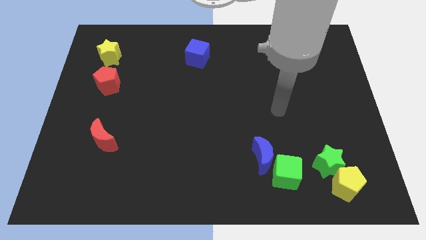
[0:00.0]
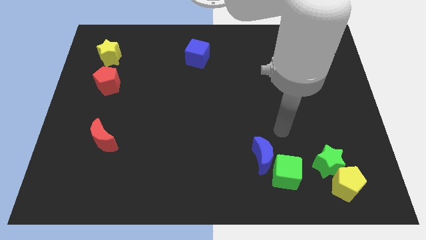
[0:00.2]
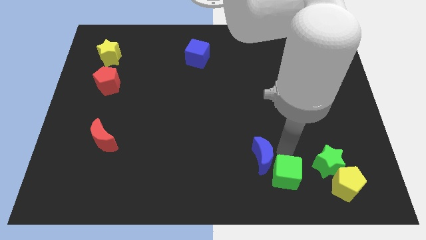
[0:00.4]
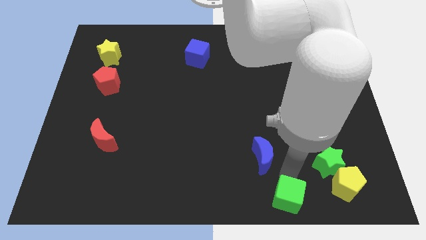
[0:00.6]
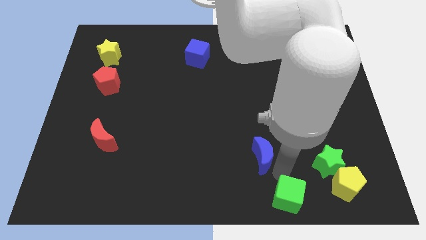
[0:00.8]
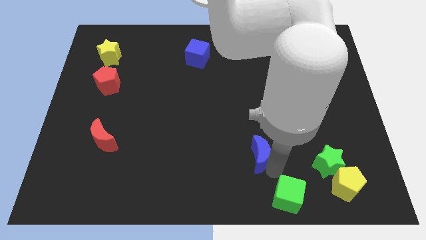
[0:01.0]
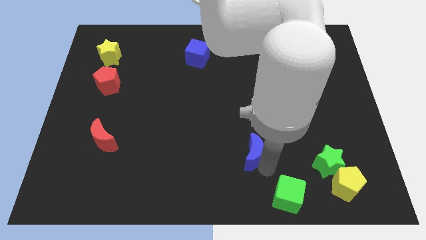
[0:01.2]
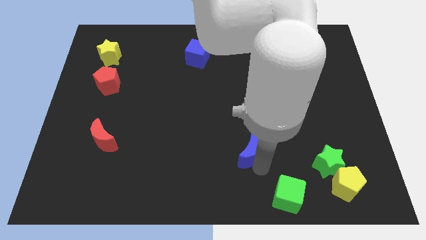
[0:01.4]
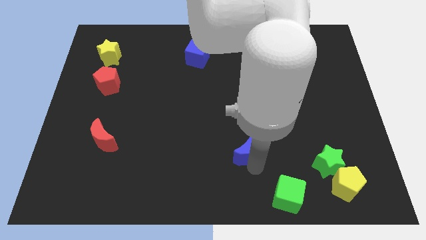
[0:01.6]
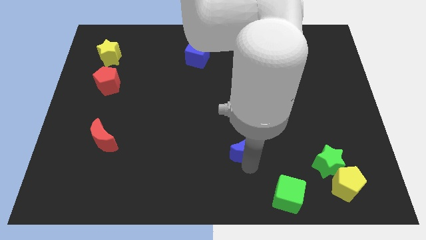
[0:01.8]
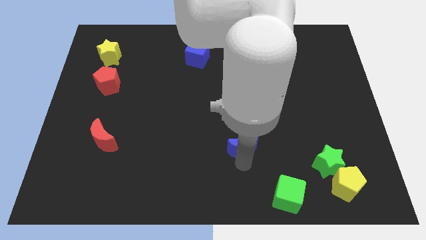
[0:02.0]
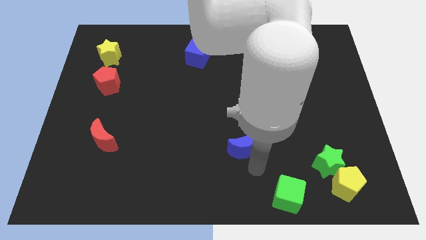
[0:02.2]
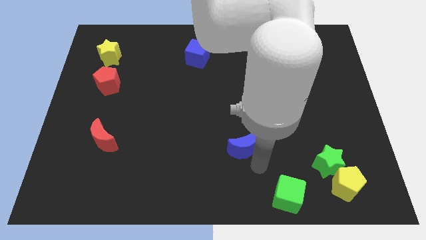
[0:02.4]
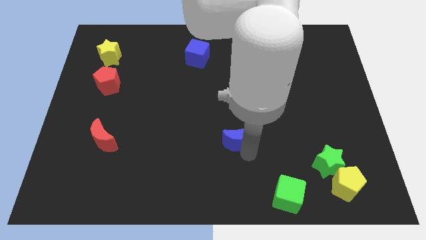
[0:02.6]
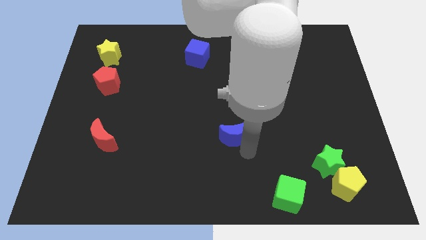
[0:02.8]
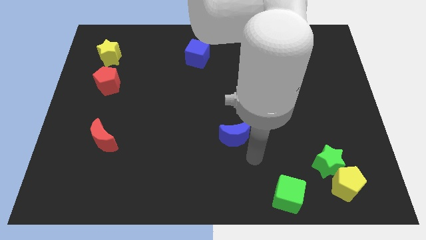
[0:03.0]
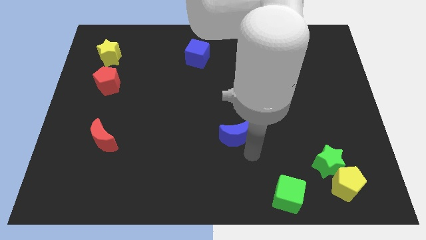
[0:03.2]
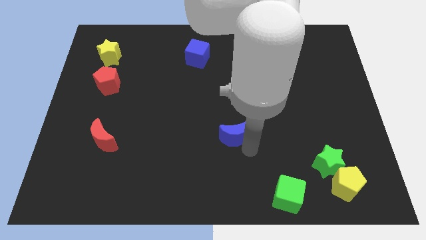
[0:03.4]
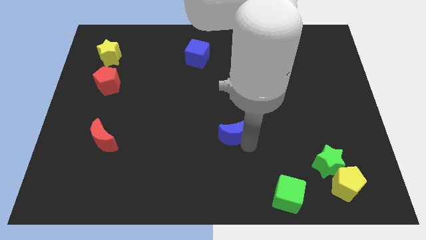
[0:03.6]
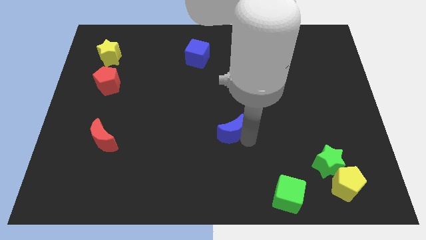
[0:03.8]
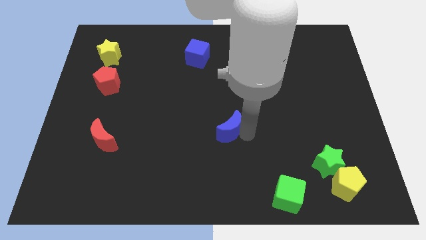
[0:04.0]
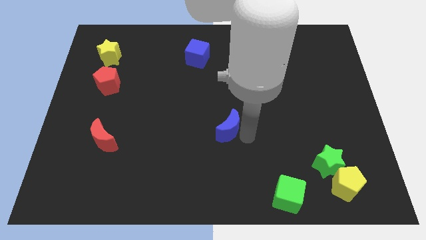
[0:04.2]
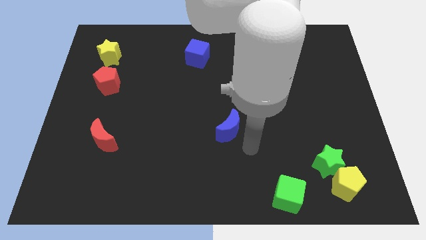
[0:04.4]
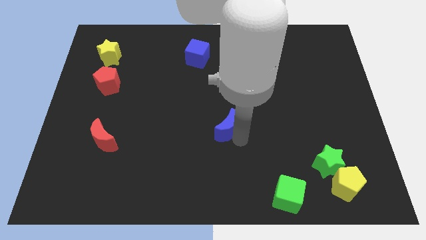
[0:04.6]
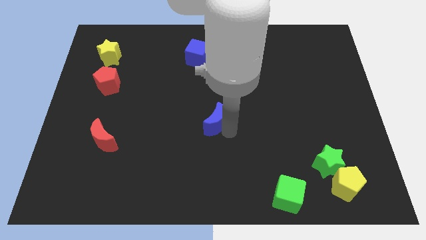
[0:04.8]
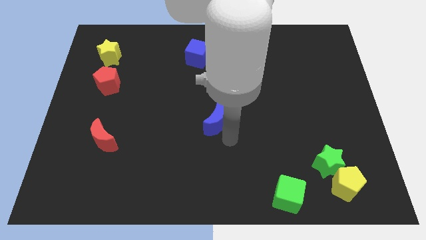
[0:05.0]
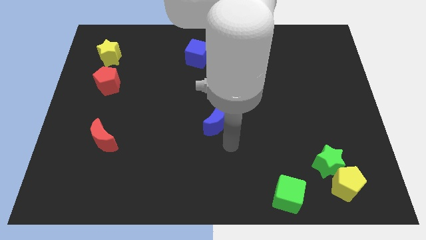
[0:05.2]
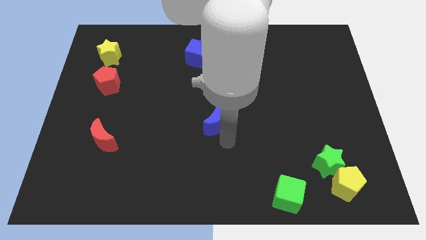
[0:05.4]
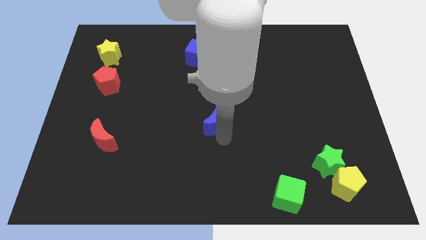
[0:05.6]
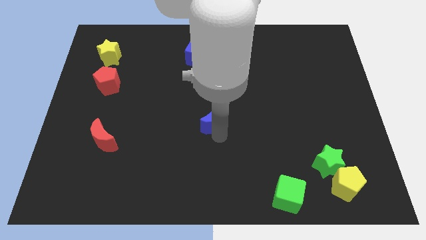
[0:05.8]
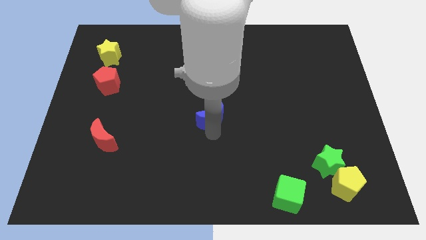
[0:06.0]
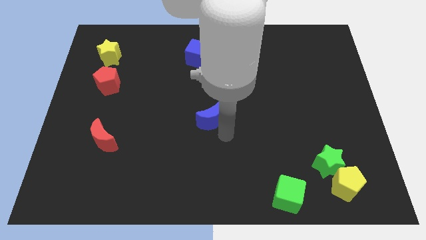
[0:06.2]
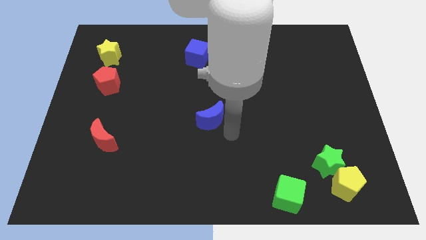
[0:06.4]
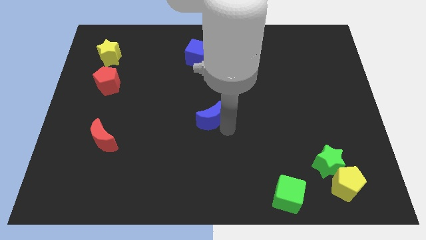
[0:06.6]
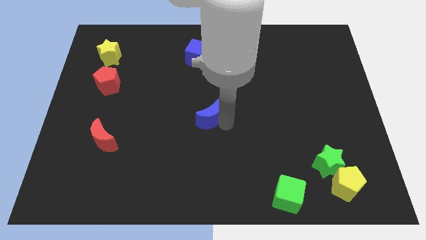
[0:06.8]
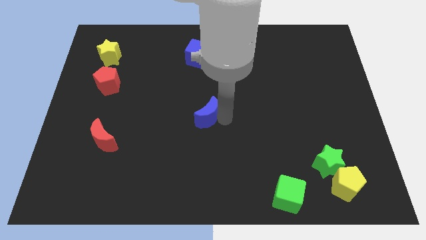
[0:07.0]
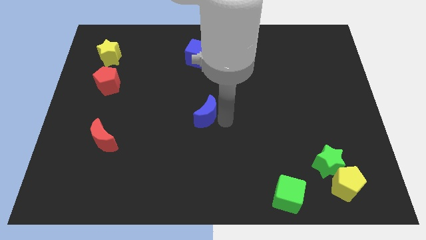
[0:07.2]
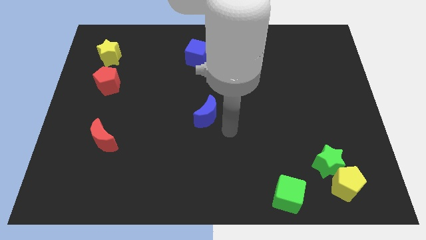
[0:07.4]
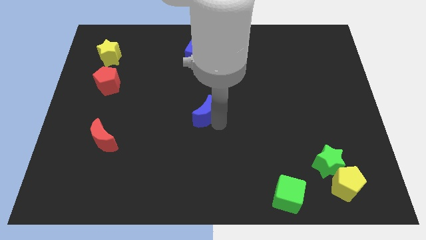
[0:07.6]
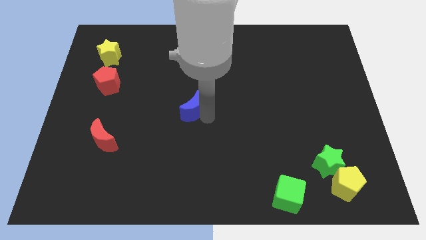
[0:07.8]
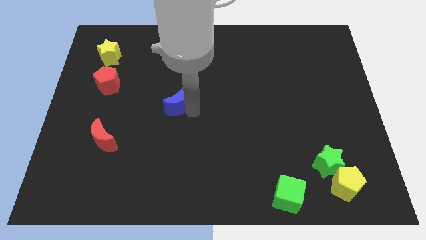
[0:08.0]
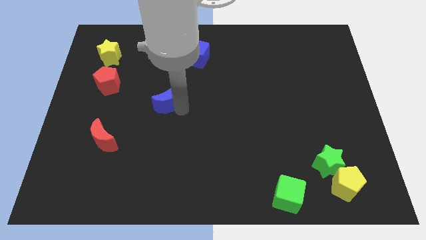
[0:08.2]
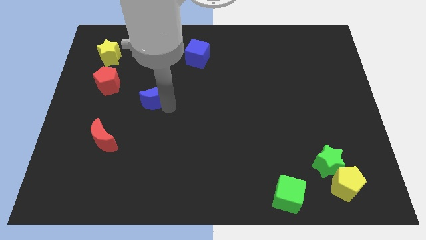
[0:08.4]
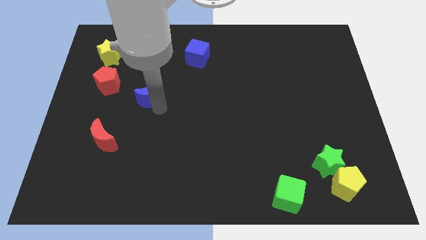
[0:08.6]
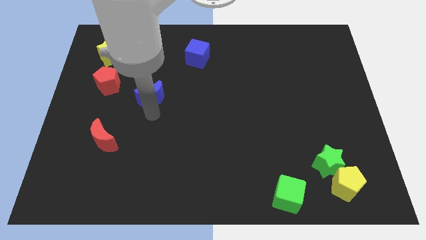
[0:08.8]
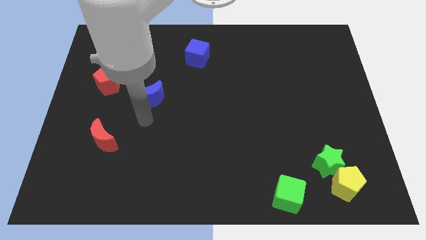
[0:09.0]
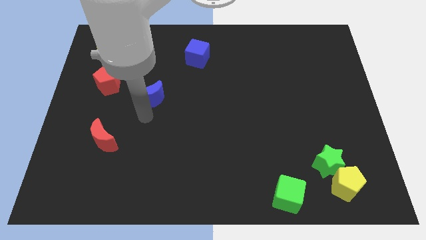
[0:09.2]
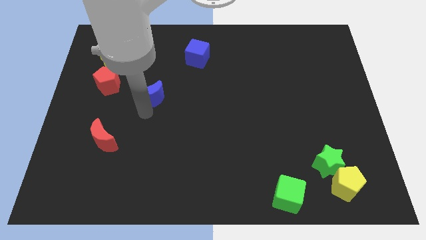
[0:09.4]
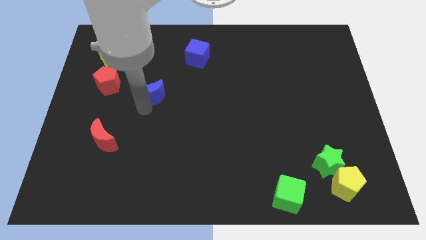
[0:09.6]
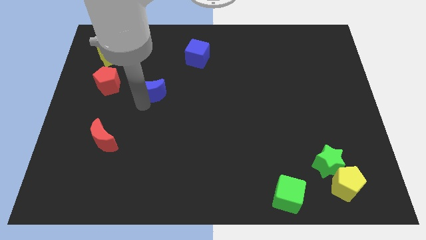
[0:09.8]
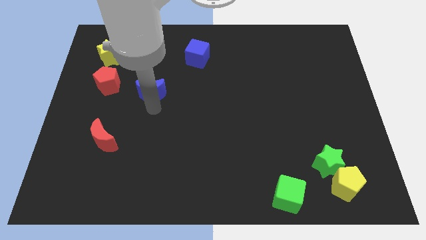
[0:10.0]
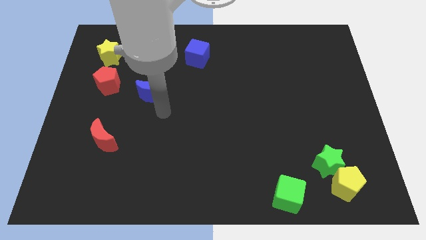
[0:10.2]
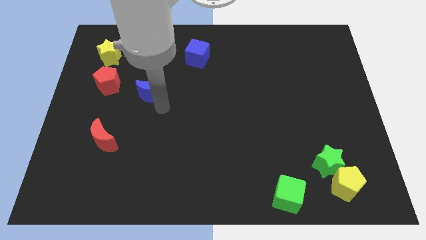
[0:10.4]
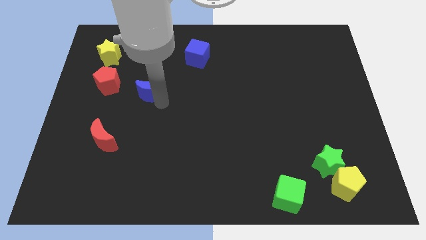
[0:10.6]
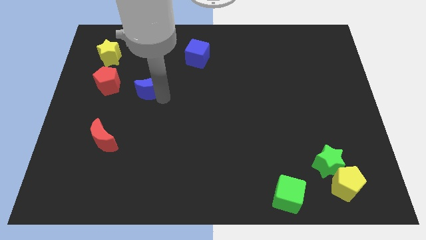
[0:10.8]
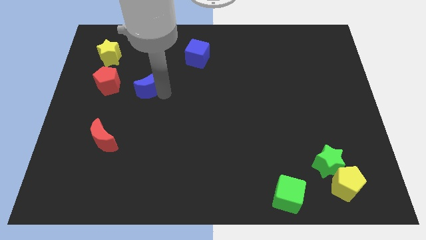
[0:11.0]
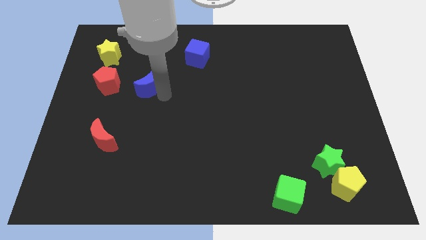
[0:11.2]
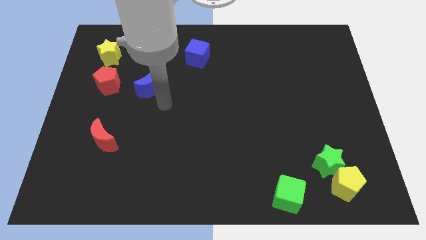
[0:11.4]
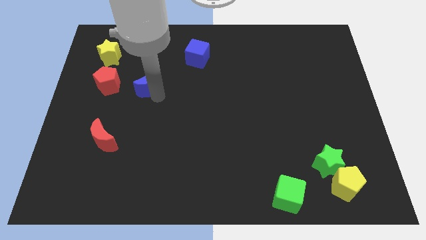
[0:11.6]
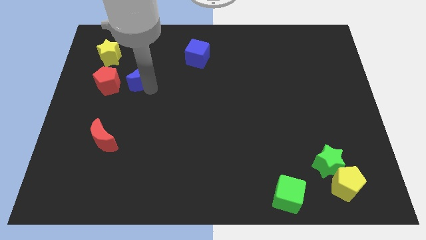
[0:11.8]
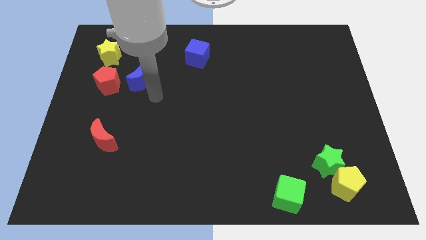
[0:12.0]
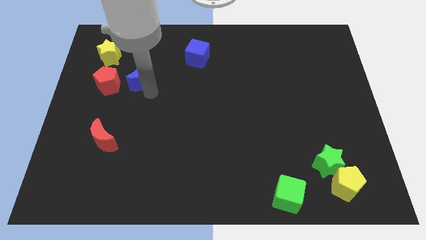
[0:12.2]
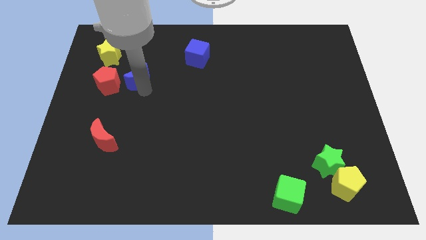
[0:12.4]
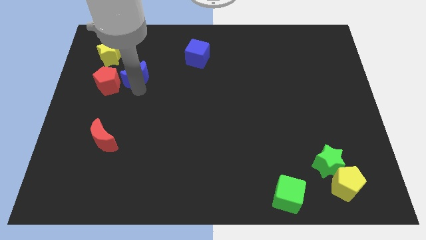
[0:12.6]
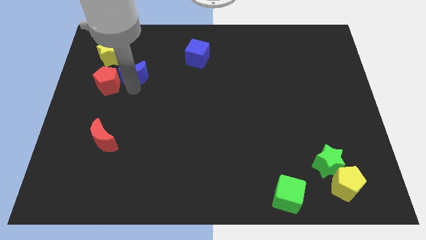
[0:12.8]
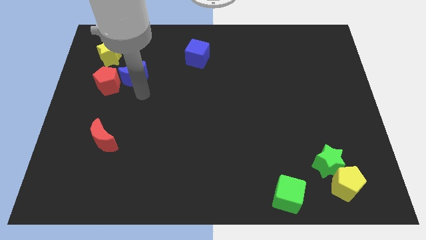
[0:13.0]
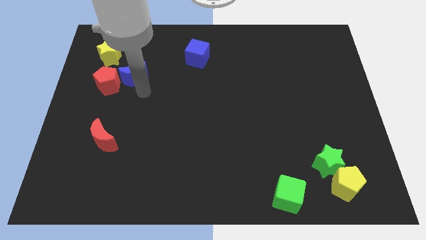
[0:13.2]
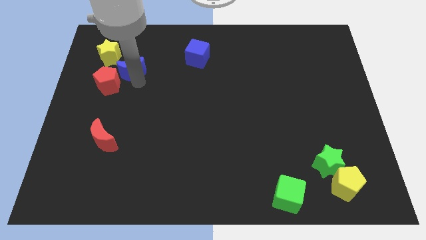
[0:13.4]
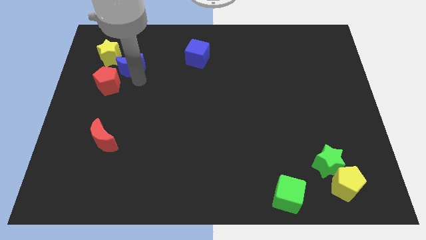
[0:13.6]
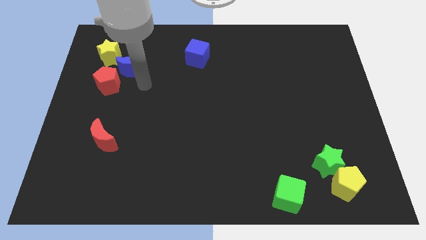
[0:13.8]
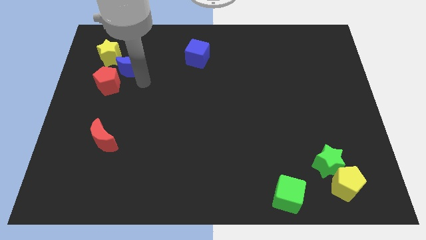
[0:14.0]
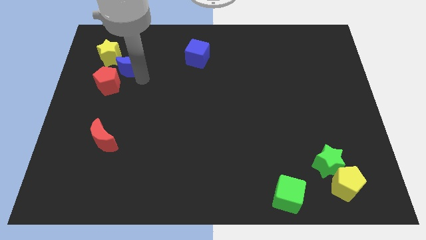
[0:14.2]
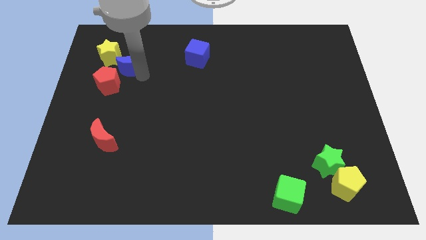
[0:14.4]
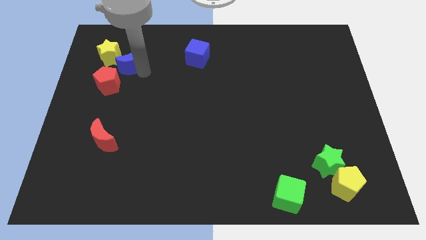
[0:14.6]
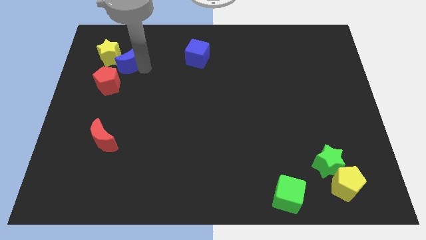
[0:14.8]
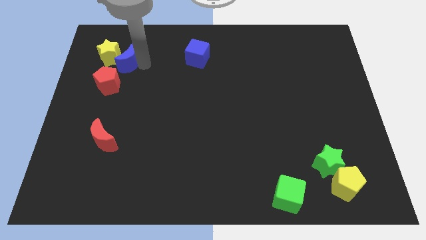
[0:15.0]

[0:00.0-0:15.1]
slide the blue moon close to the yellow star
